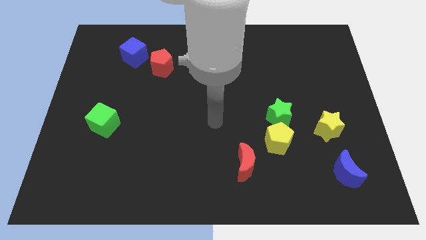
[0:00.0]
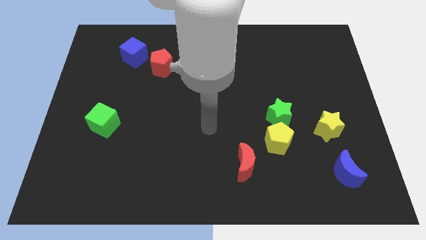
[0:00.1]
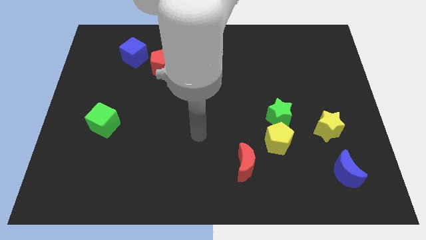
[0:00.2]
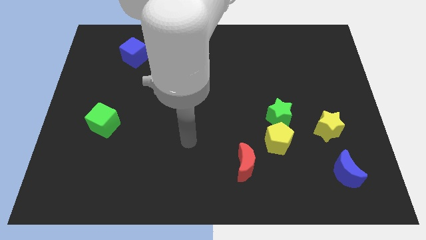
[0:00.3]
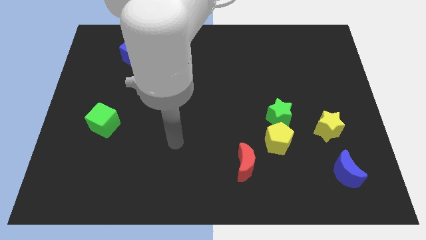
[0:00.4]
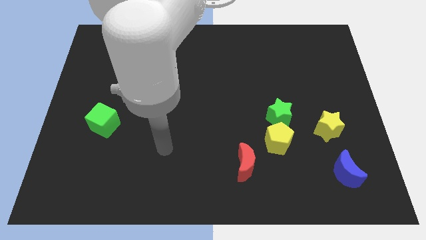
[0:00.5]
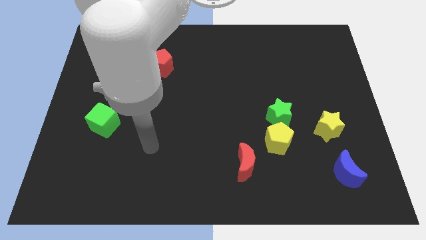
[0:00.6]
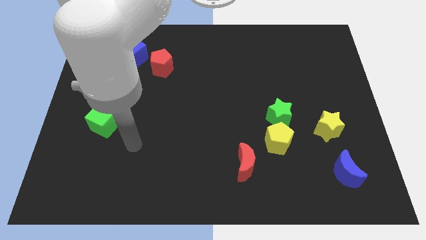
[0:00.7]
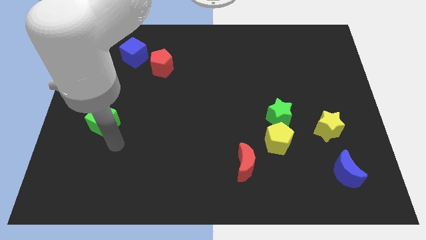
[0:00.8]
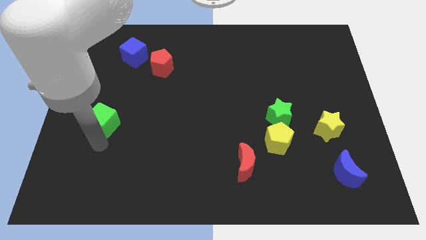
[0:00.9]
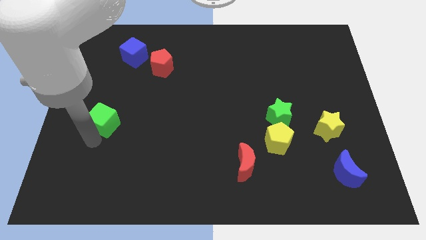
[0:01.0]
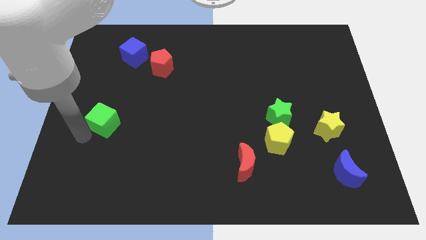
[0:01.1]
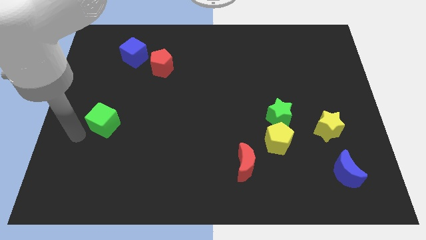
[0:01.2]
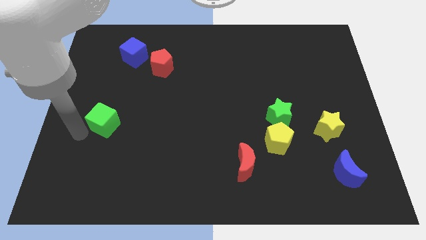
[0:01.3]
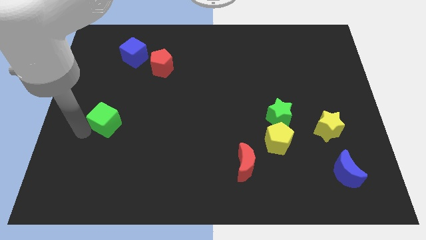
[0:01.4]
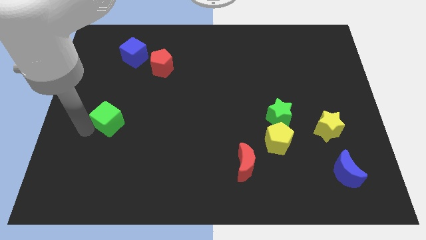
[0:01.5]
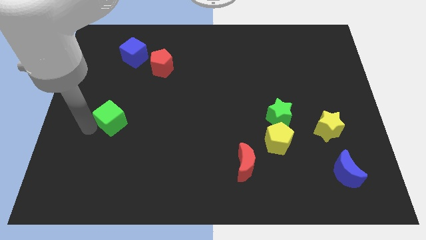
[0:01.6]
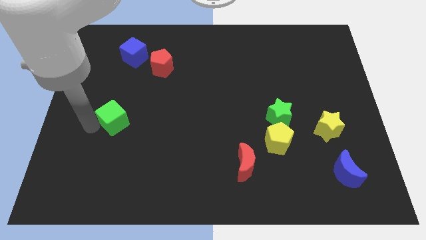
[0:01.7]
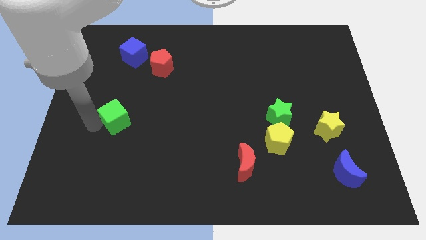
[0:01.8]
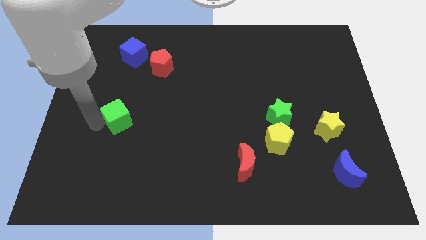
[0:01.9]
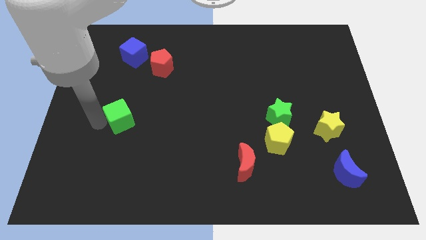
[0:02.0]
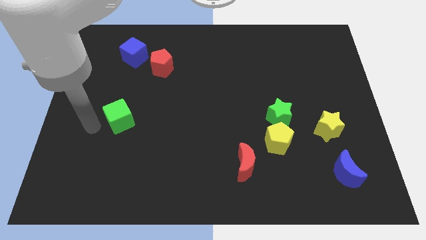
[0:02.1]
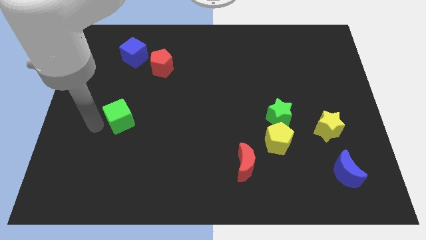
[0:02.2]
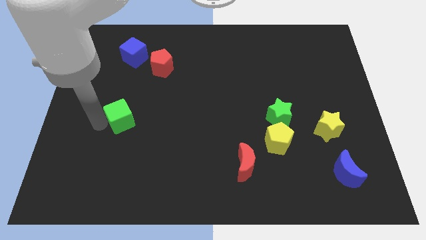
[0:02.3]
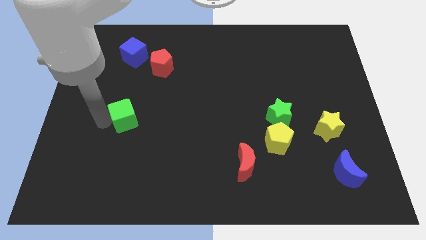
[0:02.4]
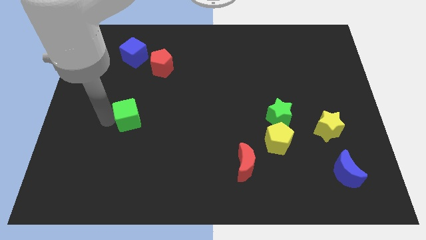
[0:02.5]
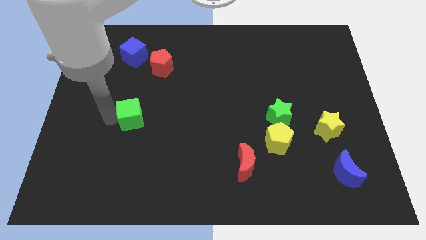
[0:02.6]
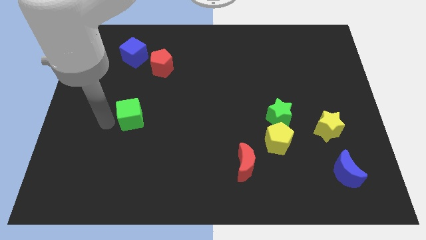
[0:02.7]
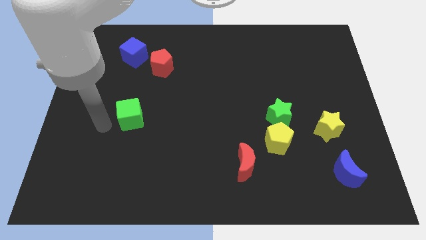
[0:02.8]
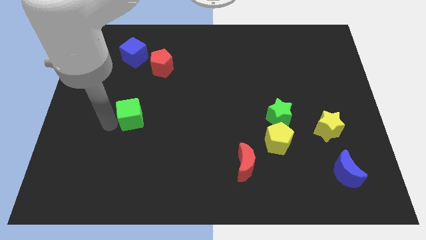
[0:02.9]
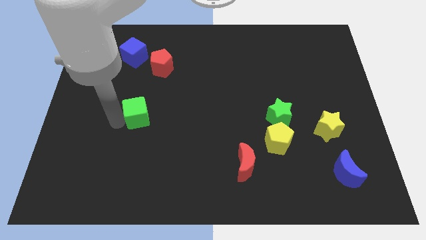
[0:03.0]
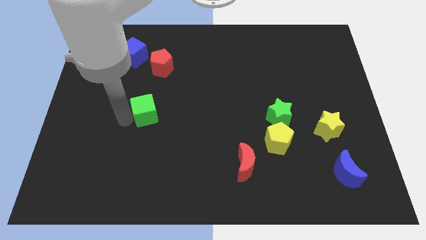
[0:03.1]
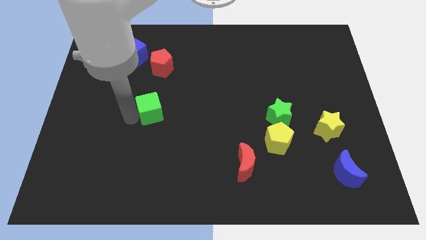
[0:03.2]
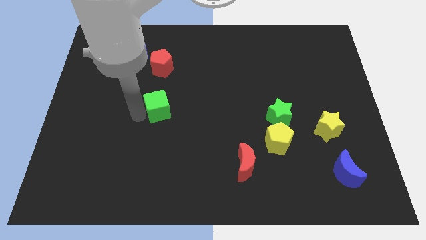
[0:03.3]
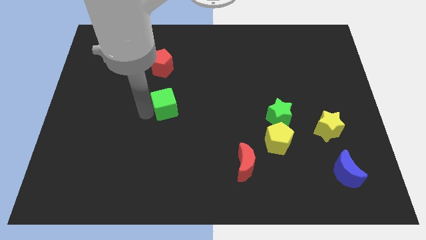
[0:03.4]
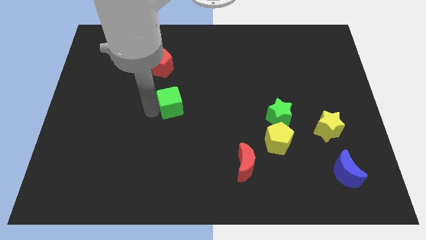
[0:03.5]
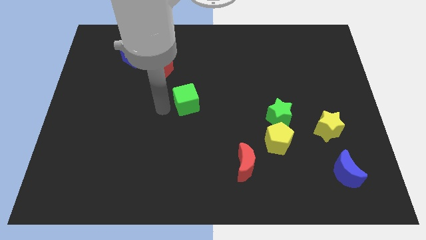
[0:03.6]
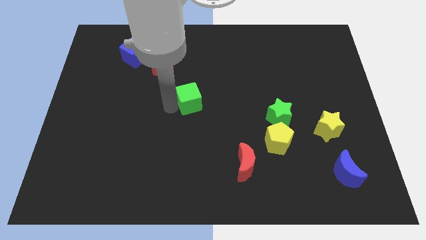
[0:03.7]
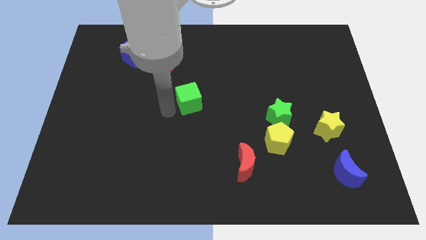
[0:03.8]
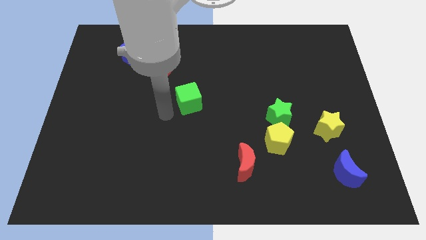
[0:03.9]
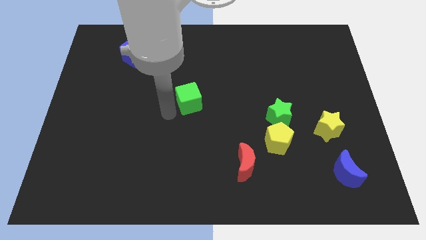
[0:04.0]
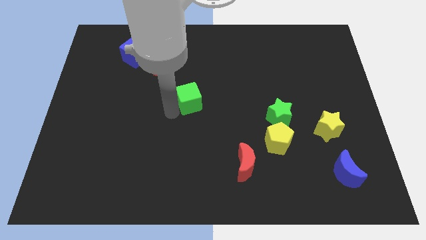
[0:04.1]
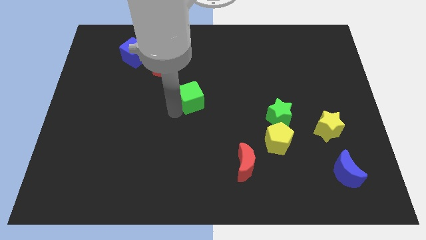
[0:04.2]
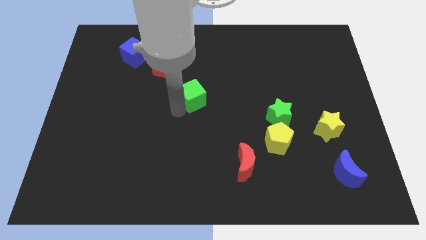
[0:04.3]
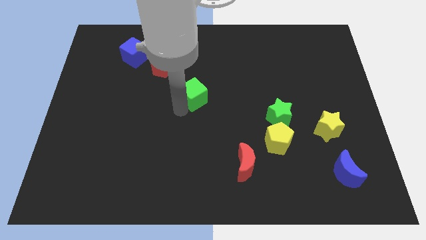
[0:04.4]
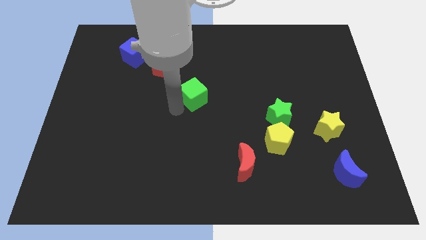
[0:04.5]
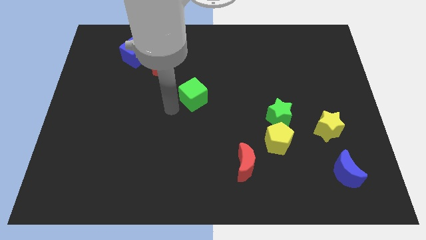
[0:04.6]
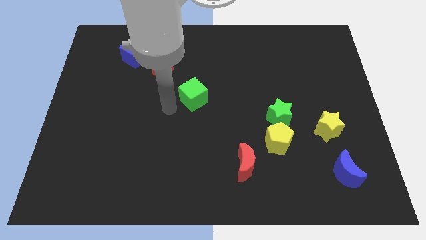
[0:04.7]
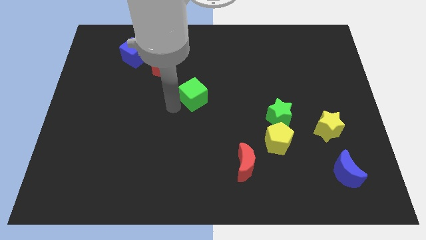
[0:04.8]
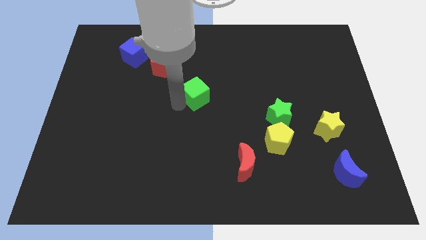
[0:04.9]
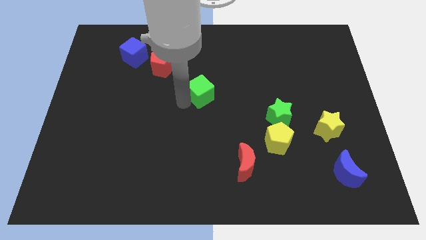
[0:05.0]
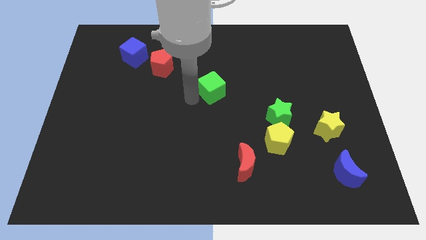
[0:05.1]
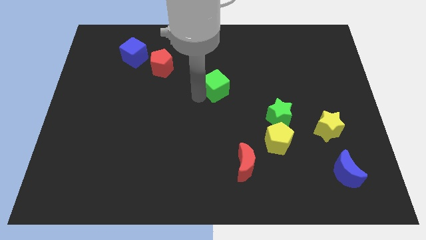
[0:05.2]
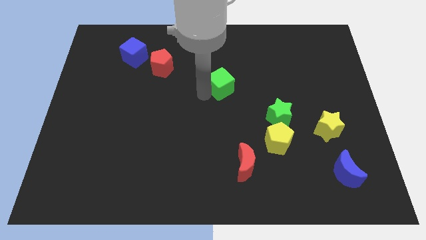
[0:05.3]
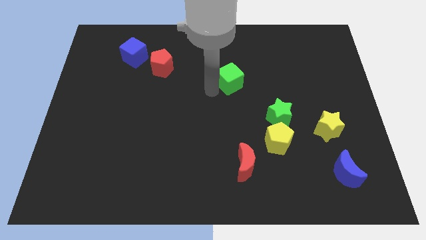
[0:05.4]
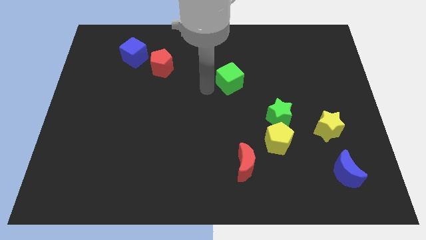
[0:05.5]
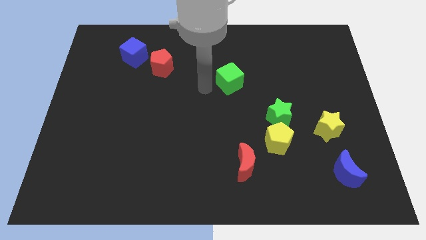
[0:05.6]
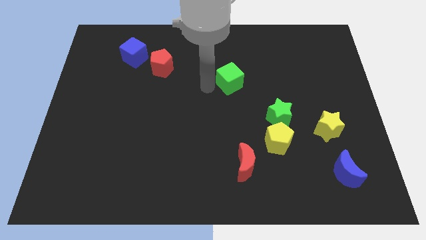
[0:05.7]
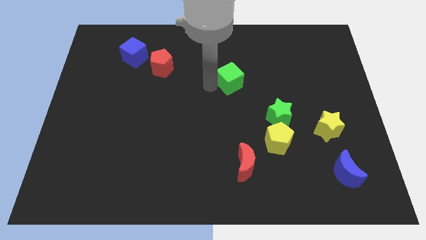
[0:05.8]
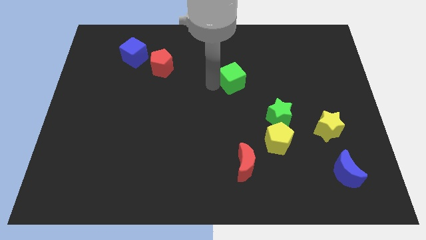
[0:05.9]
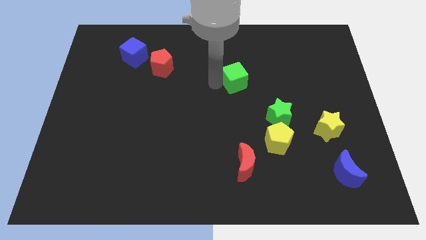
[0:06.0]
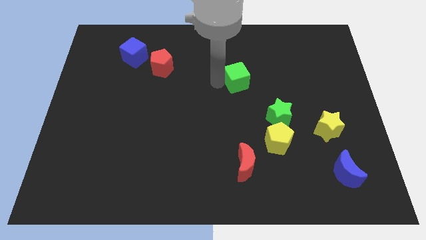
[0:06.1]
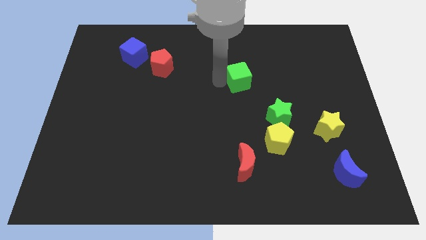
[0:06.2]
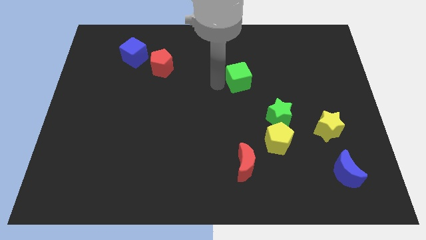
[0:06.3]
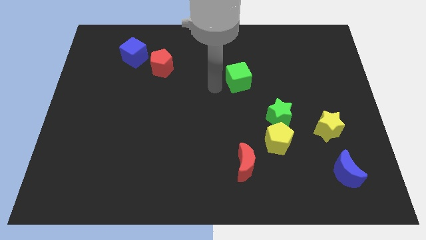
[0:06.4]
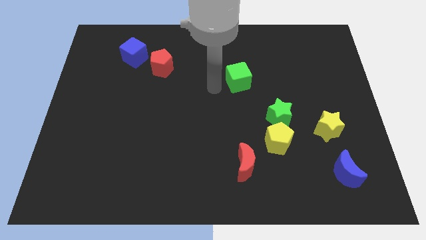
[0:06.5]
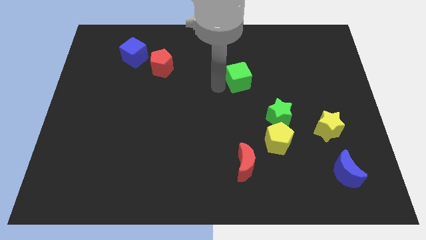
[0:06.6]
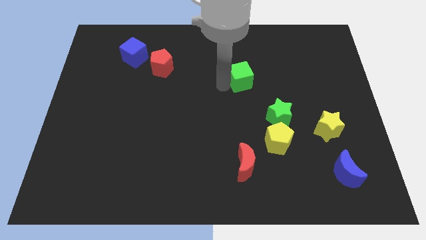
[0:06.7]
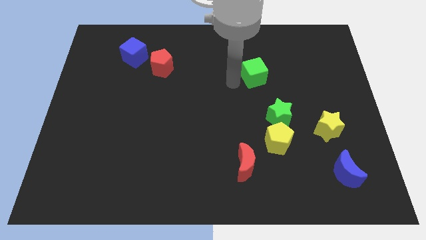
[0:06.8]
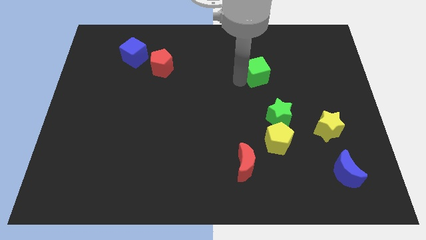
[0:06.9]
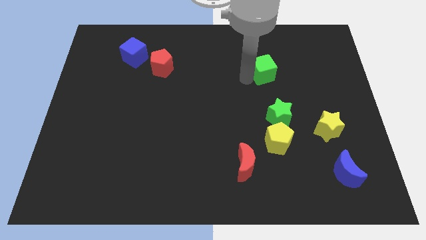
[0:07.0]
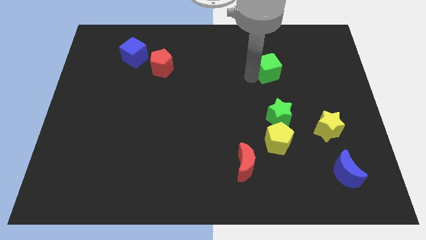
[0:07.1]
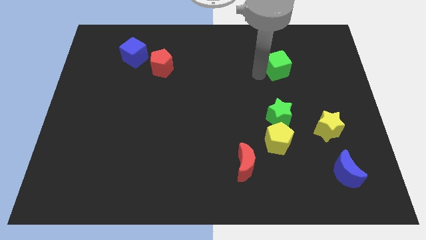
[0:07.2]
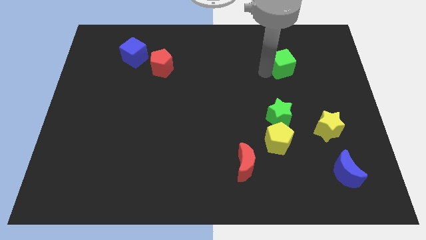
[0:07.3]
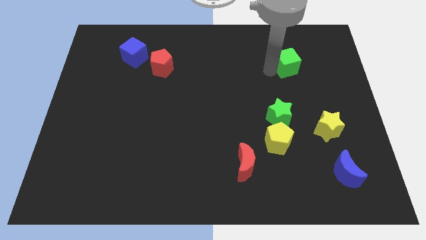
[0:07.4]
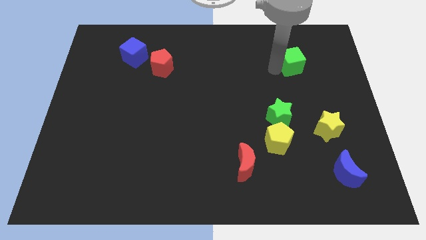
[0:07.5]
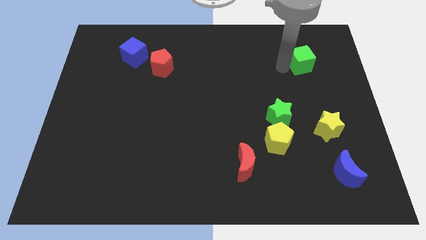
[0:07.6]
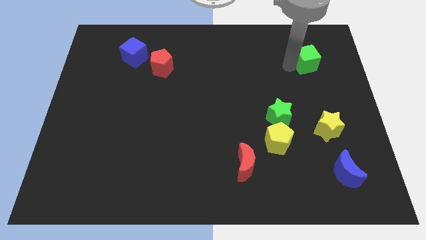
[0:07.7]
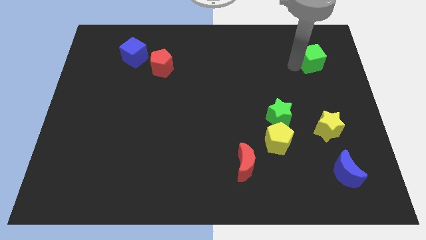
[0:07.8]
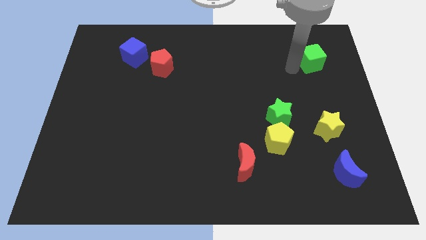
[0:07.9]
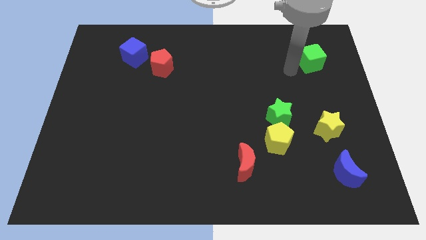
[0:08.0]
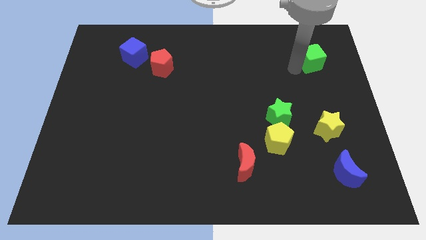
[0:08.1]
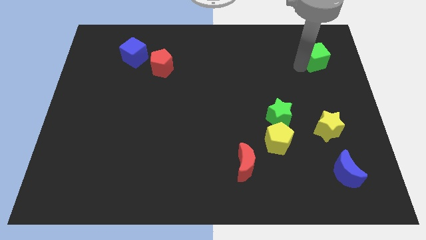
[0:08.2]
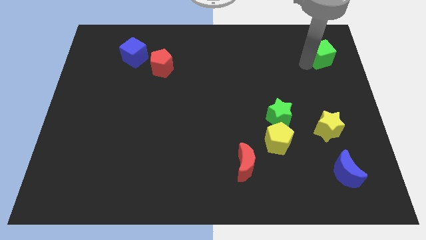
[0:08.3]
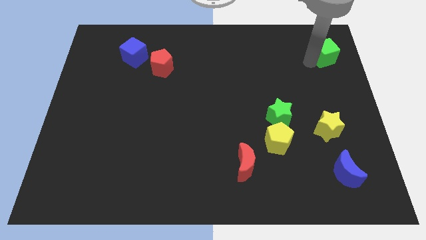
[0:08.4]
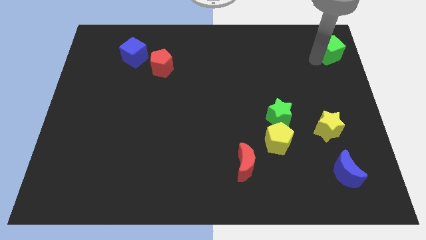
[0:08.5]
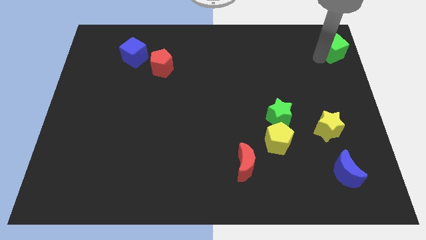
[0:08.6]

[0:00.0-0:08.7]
push the green cube to the top right
